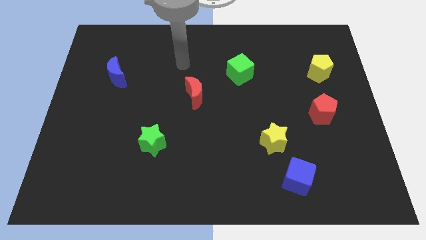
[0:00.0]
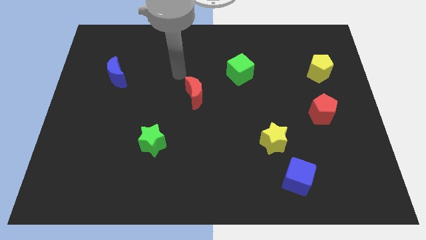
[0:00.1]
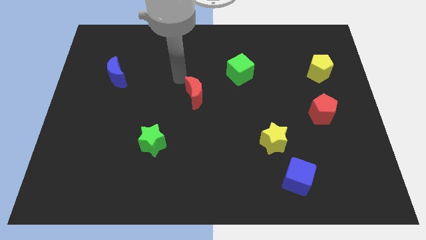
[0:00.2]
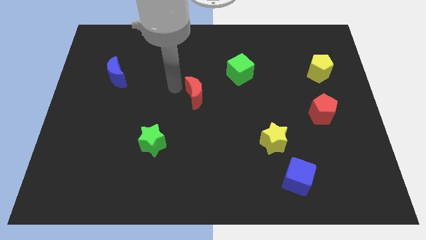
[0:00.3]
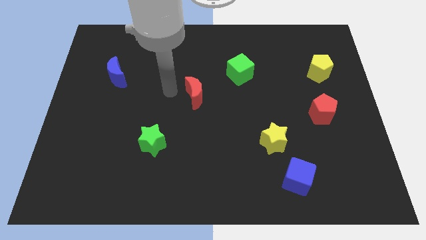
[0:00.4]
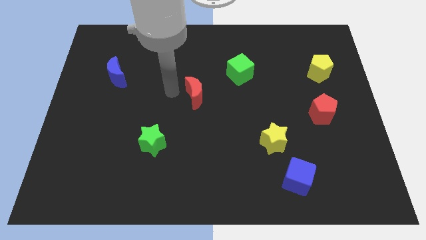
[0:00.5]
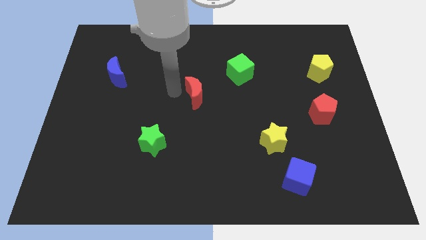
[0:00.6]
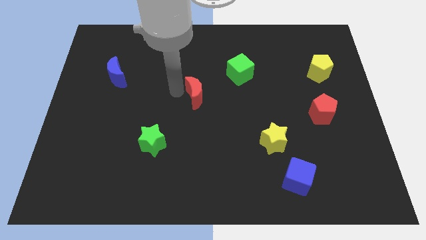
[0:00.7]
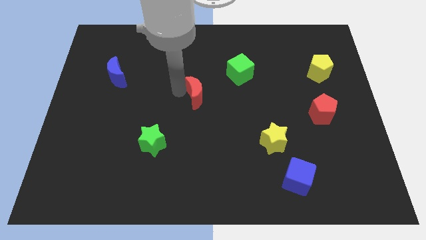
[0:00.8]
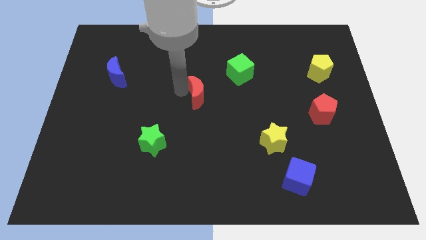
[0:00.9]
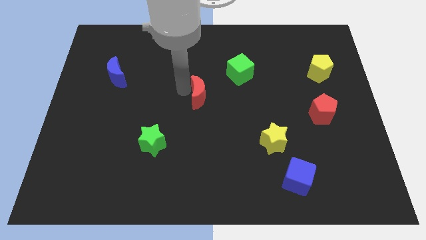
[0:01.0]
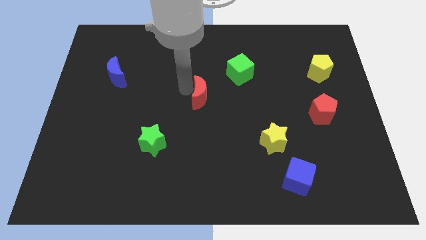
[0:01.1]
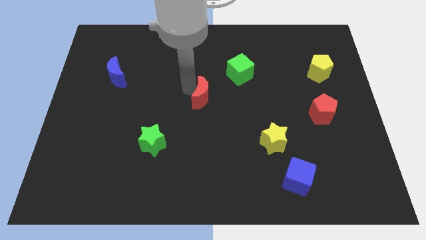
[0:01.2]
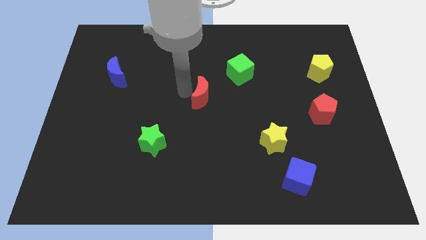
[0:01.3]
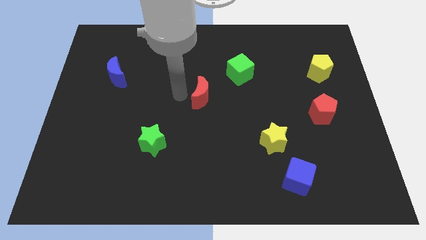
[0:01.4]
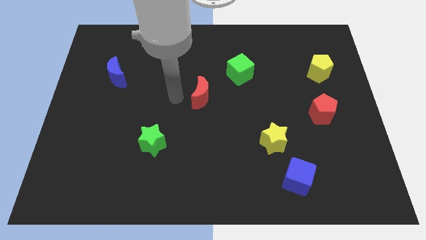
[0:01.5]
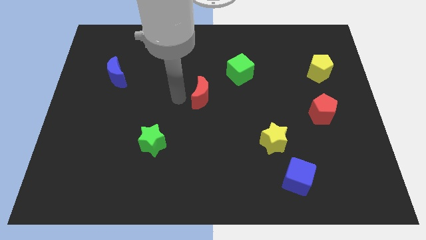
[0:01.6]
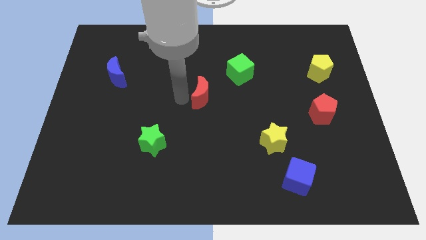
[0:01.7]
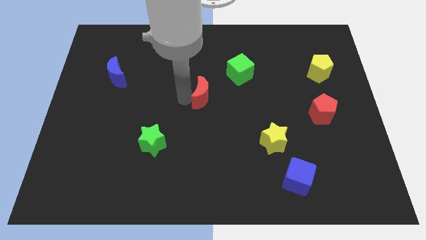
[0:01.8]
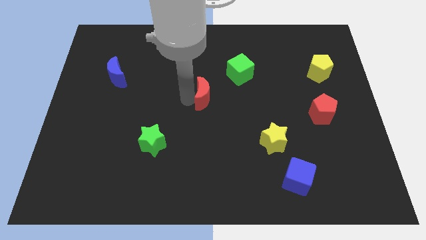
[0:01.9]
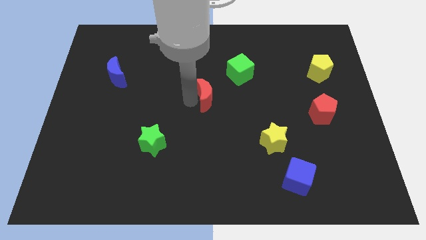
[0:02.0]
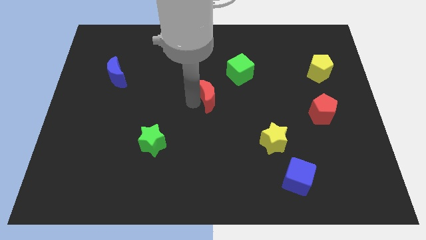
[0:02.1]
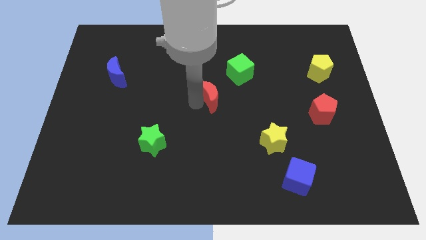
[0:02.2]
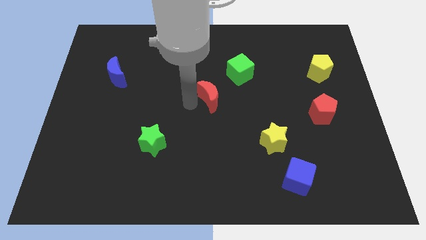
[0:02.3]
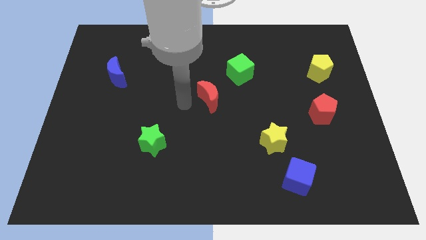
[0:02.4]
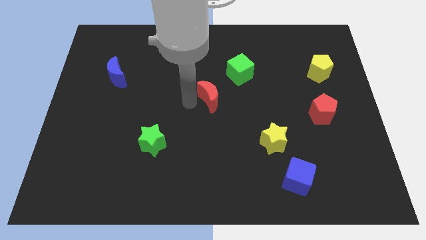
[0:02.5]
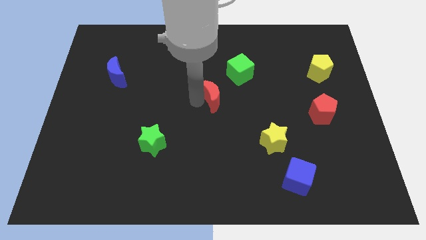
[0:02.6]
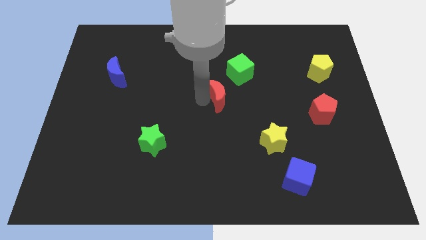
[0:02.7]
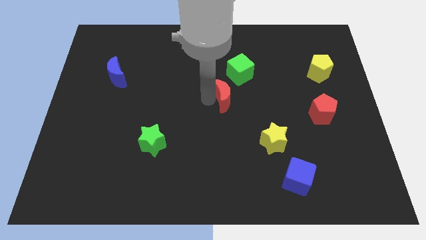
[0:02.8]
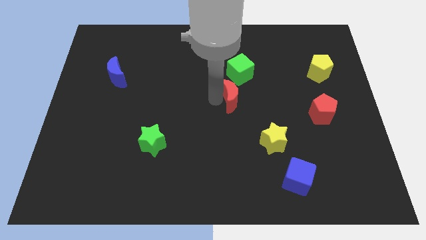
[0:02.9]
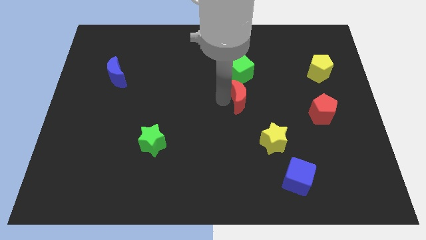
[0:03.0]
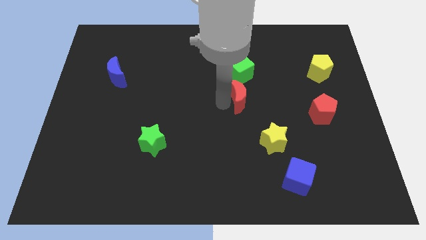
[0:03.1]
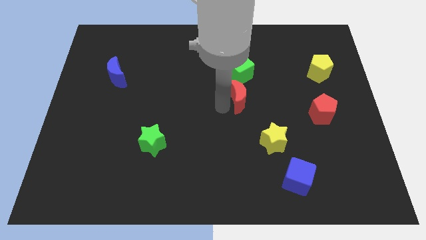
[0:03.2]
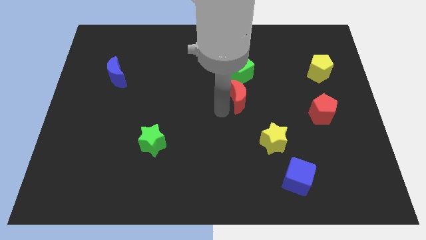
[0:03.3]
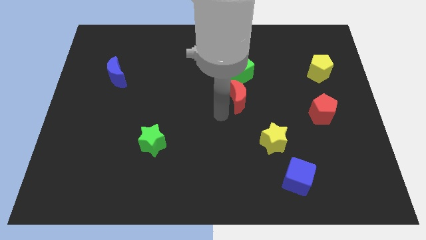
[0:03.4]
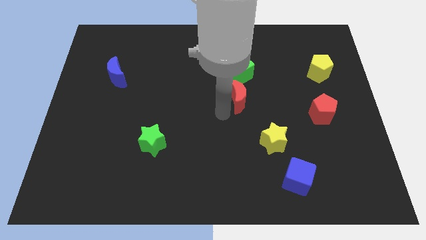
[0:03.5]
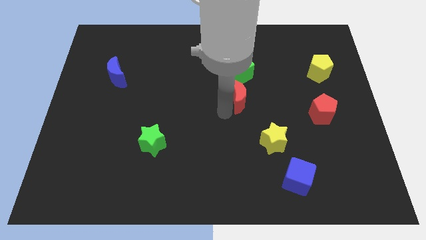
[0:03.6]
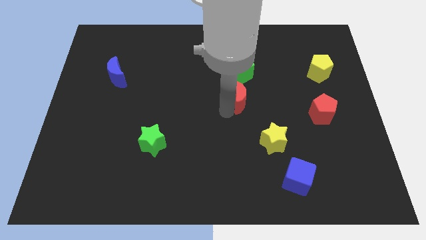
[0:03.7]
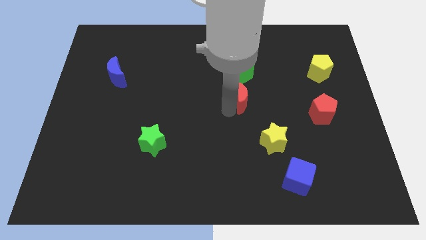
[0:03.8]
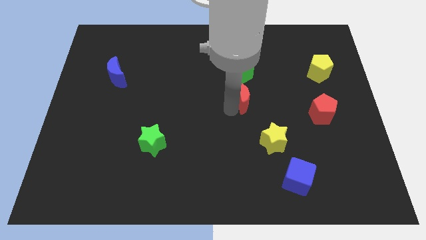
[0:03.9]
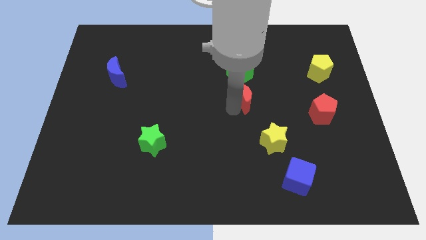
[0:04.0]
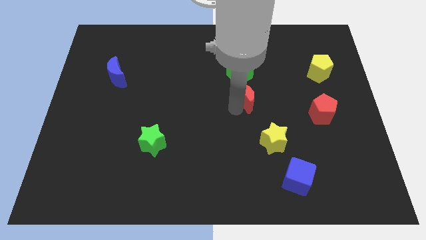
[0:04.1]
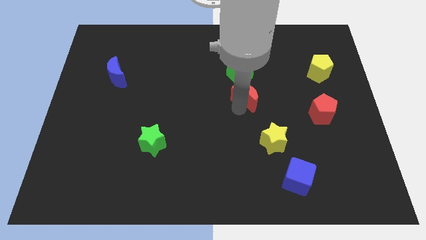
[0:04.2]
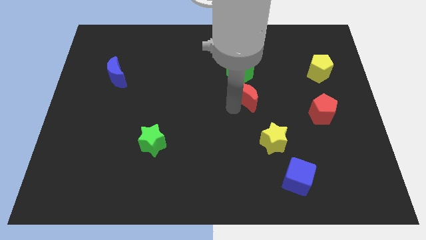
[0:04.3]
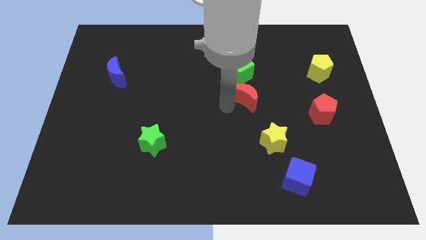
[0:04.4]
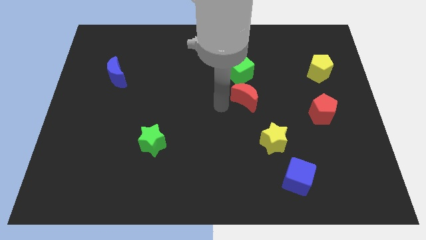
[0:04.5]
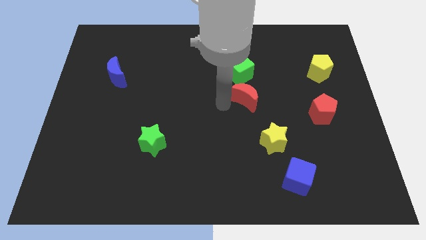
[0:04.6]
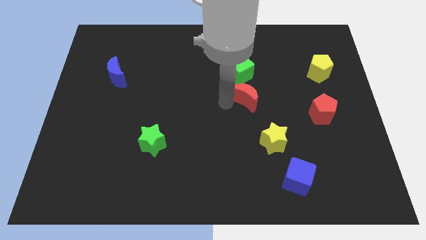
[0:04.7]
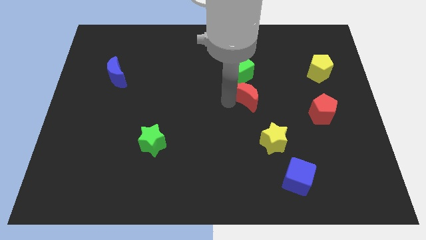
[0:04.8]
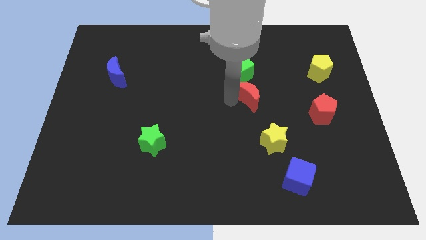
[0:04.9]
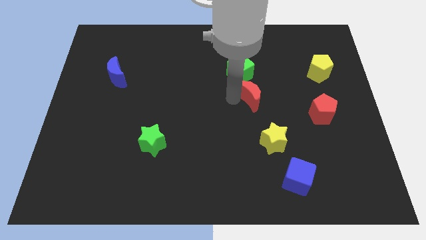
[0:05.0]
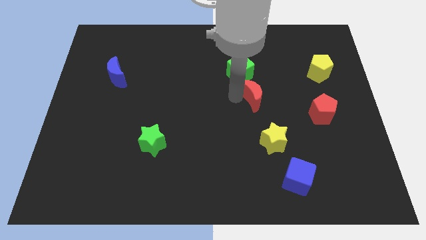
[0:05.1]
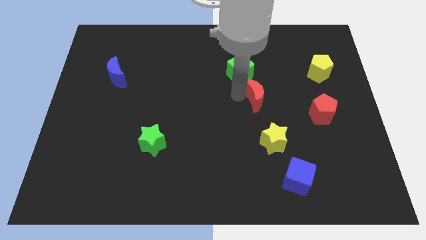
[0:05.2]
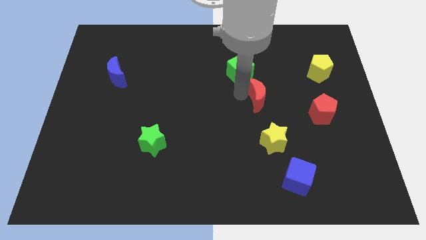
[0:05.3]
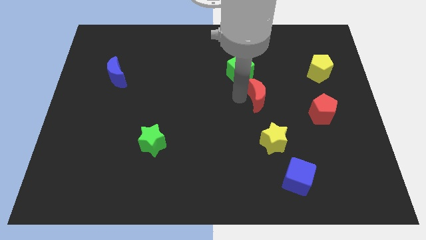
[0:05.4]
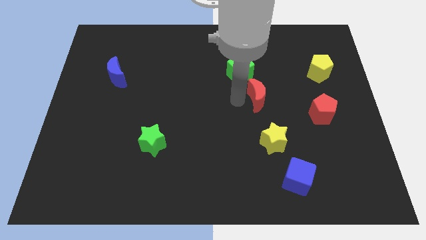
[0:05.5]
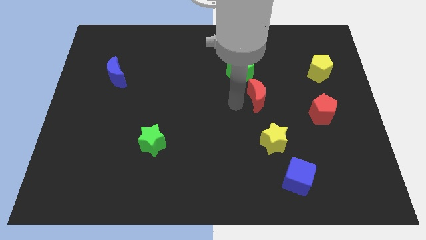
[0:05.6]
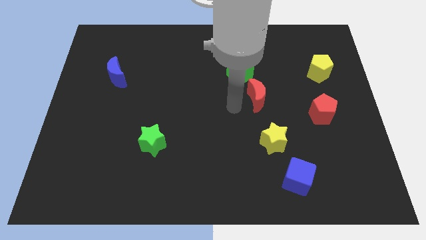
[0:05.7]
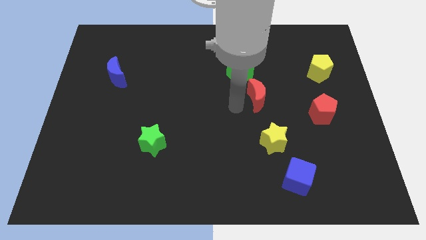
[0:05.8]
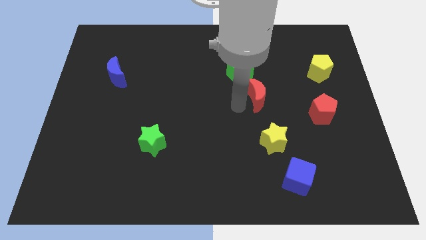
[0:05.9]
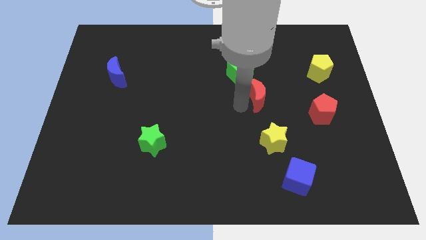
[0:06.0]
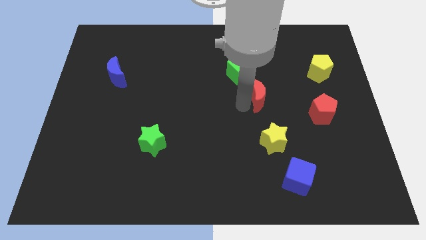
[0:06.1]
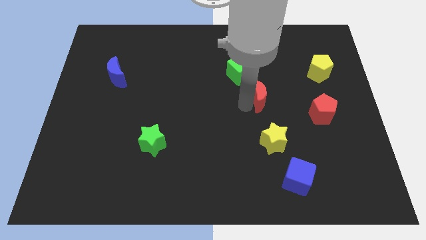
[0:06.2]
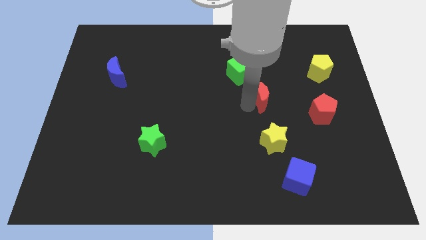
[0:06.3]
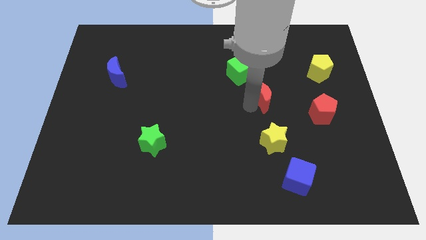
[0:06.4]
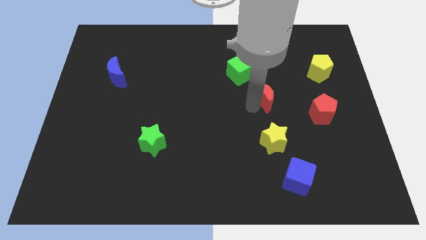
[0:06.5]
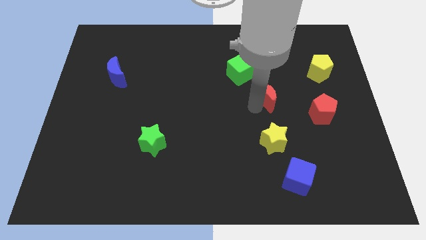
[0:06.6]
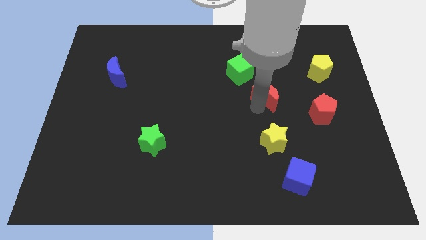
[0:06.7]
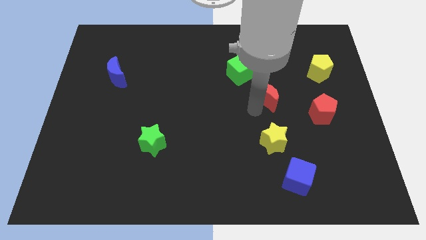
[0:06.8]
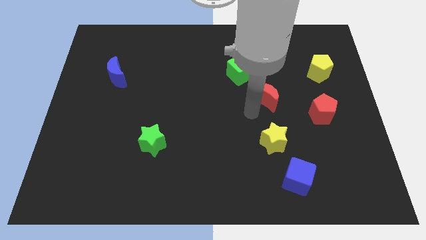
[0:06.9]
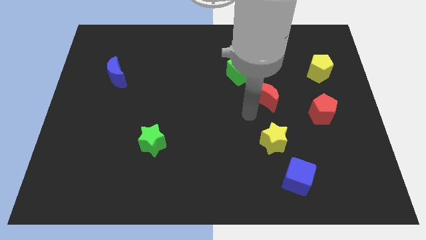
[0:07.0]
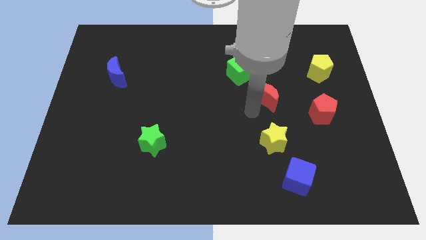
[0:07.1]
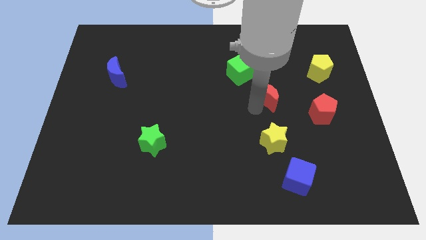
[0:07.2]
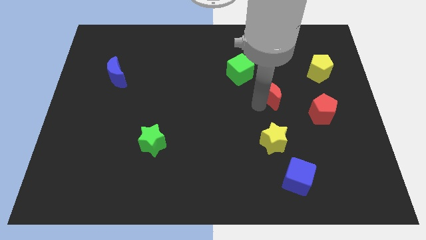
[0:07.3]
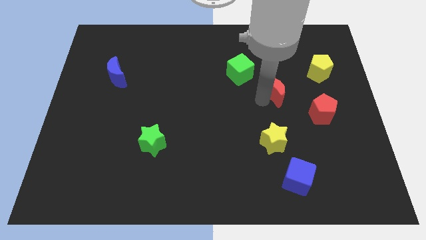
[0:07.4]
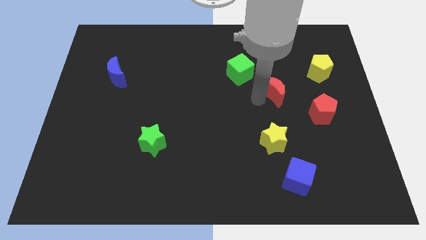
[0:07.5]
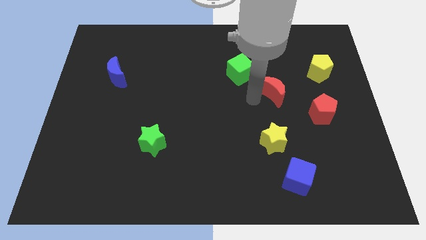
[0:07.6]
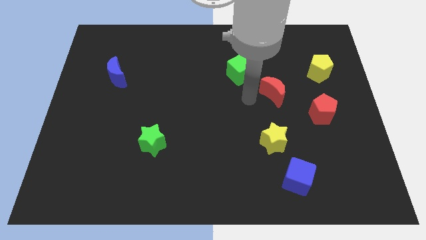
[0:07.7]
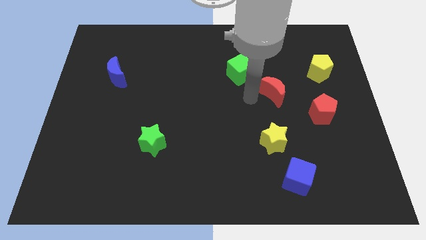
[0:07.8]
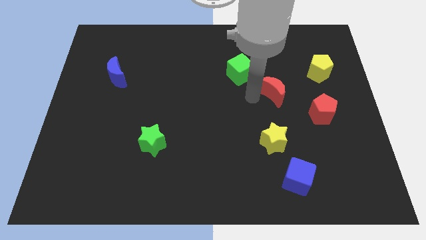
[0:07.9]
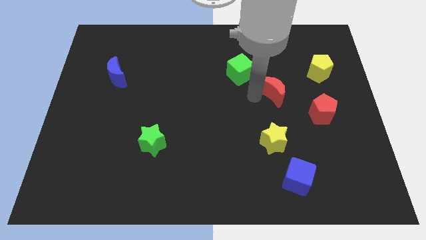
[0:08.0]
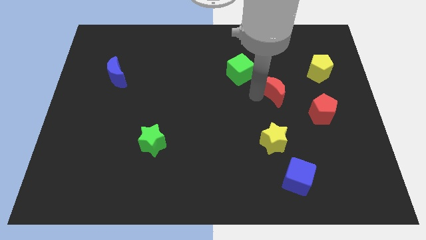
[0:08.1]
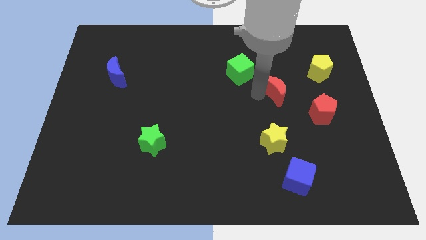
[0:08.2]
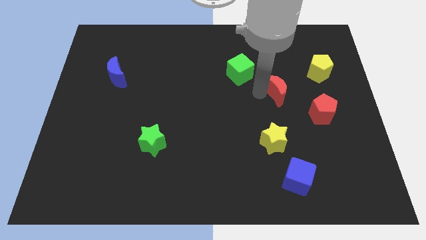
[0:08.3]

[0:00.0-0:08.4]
move the red moon to the right
